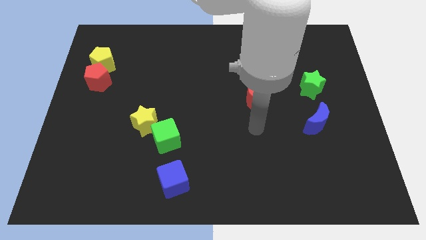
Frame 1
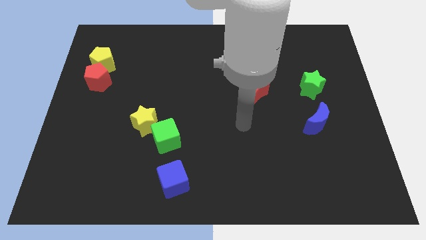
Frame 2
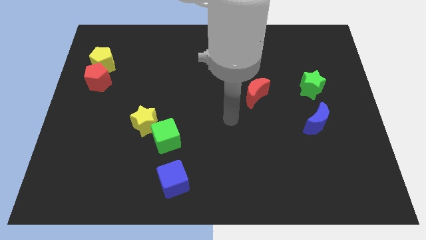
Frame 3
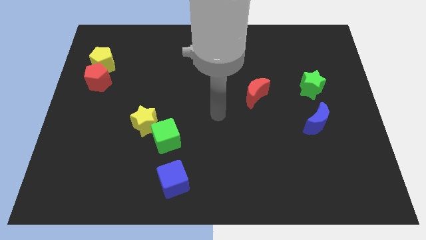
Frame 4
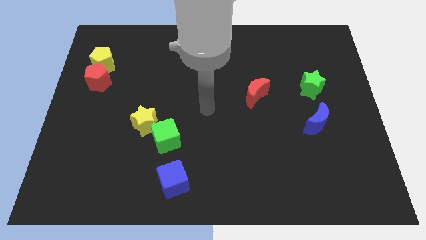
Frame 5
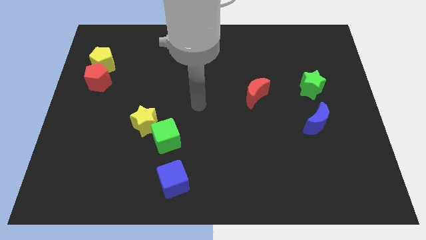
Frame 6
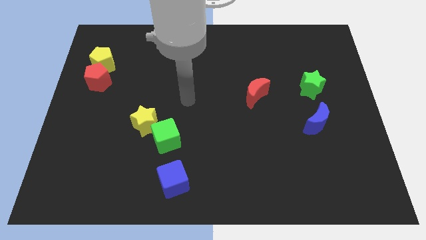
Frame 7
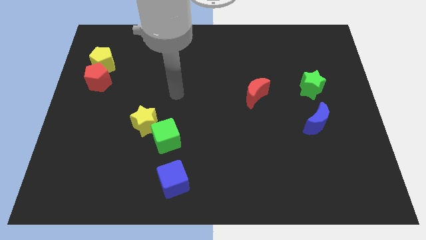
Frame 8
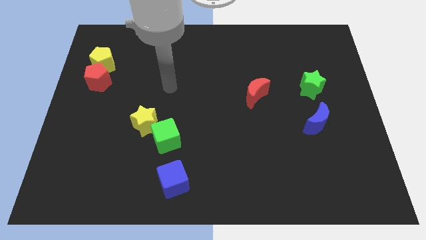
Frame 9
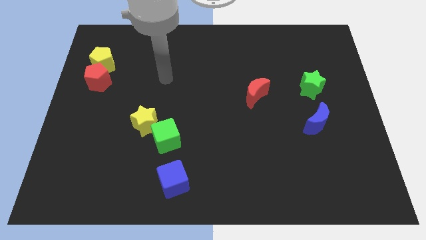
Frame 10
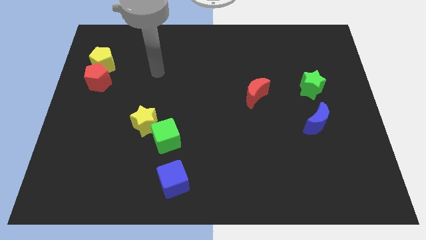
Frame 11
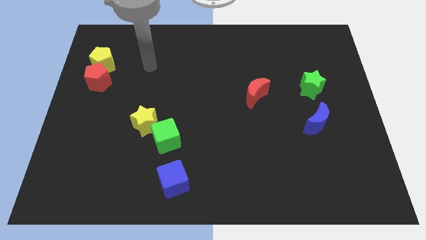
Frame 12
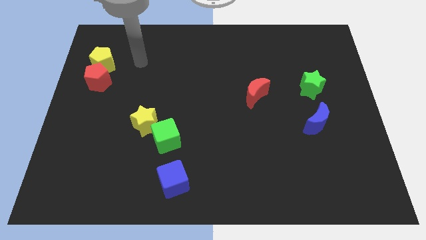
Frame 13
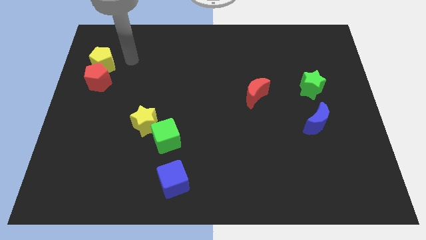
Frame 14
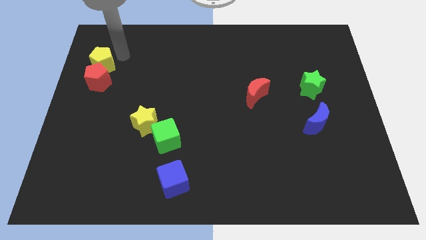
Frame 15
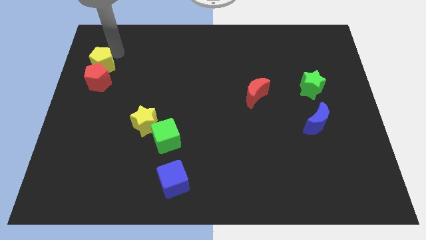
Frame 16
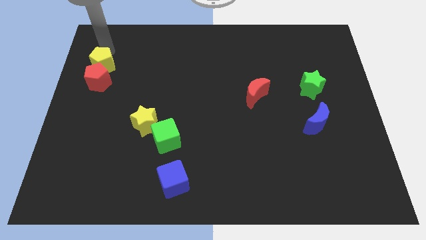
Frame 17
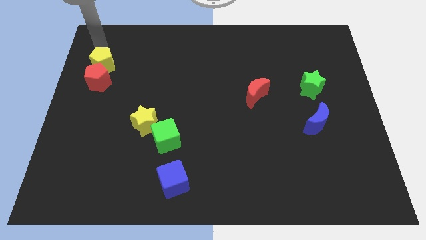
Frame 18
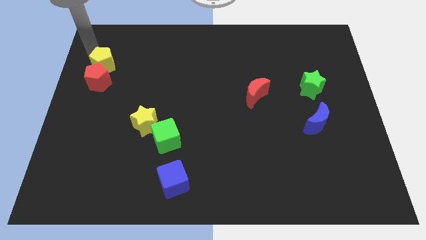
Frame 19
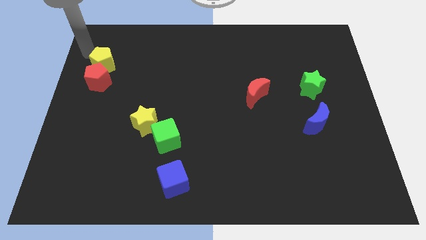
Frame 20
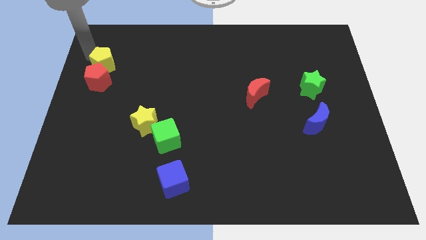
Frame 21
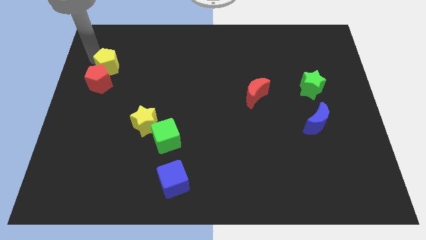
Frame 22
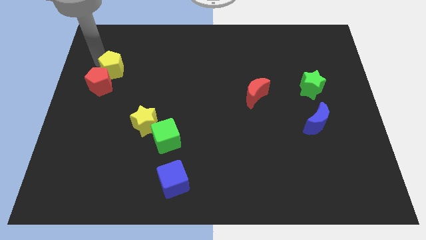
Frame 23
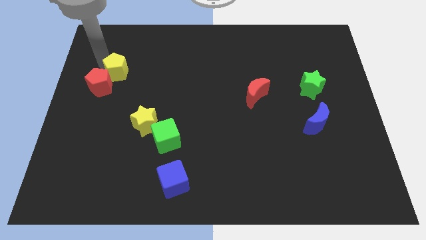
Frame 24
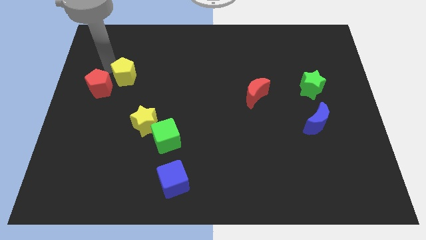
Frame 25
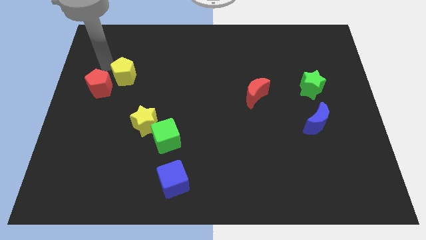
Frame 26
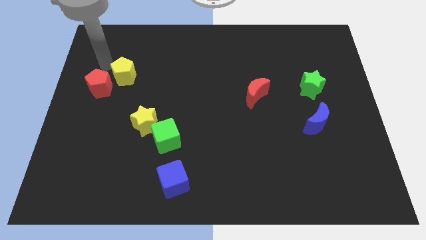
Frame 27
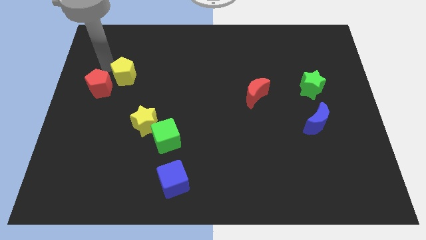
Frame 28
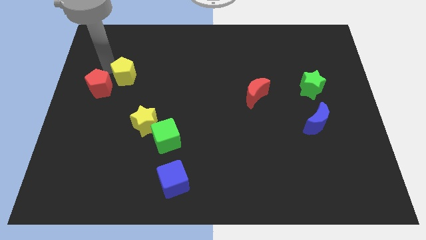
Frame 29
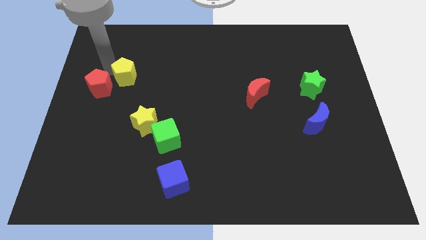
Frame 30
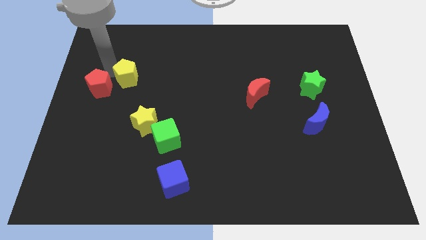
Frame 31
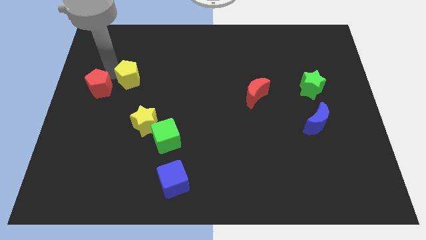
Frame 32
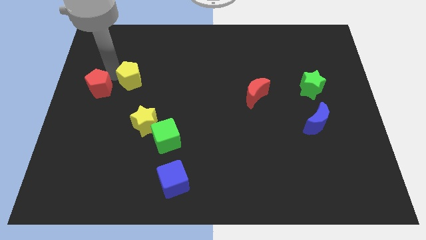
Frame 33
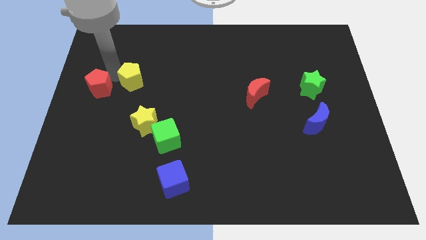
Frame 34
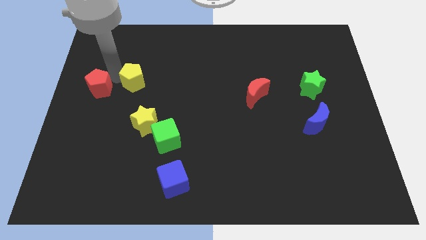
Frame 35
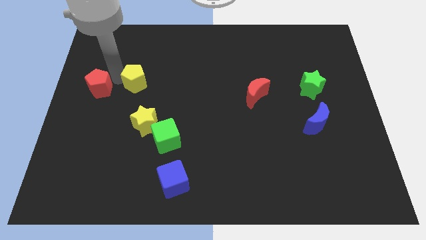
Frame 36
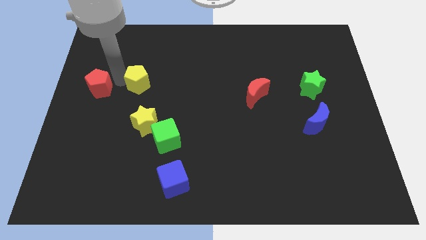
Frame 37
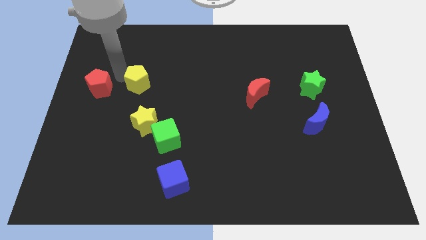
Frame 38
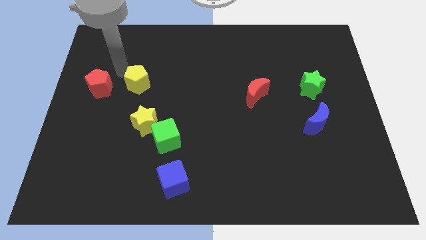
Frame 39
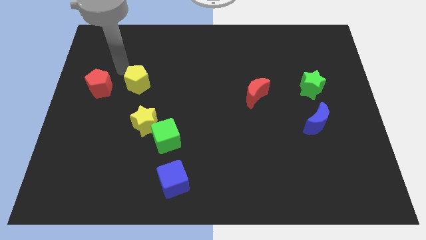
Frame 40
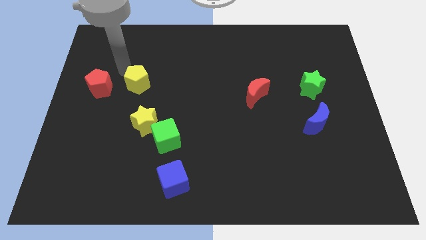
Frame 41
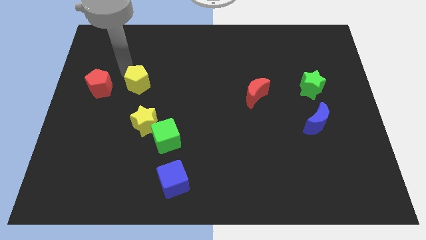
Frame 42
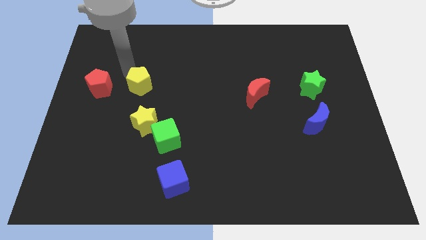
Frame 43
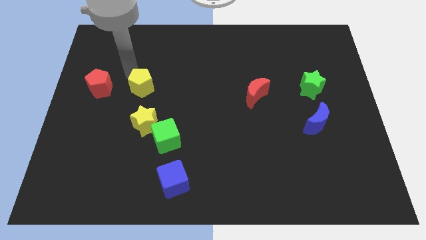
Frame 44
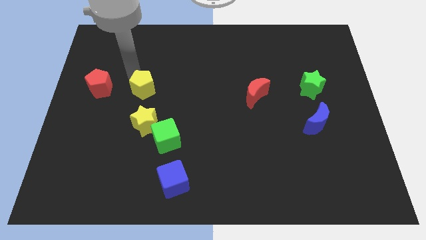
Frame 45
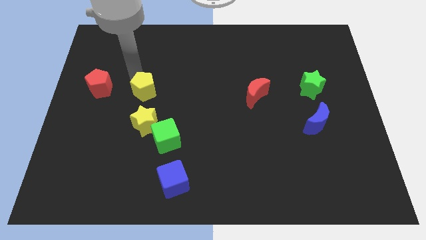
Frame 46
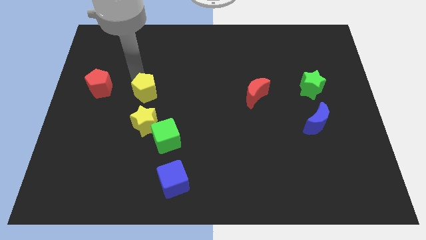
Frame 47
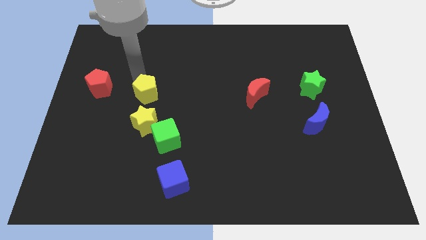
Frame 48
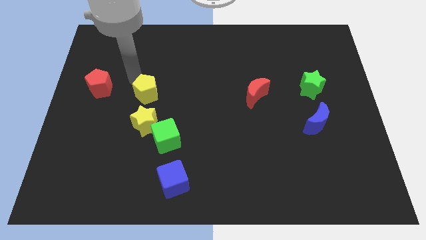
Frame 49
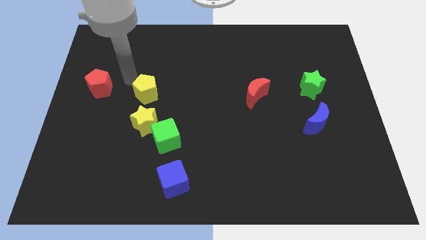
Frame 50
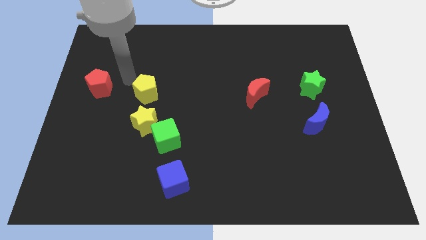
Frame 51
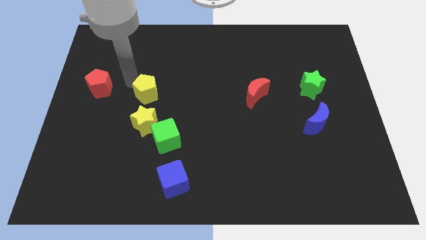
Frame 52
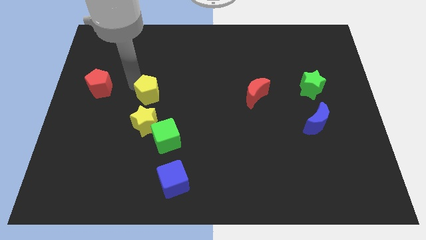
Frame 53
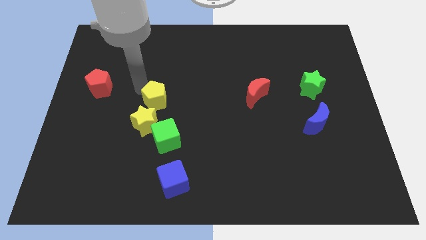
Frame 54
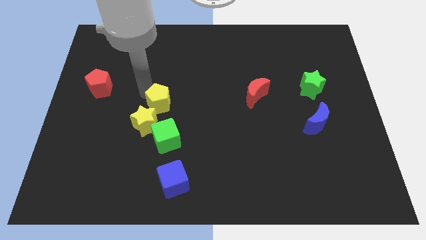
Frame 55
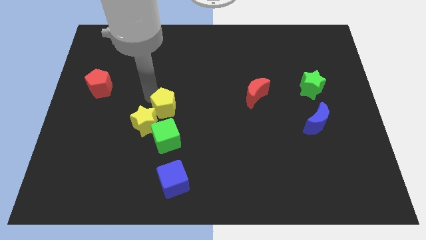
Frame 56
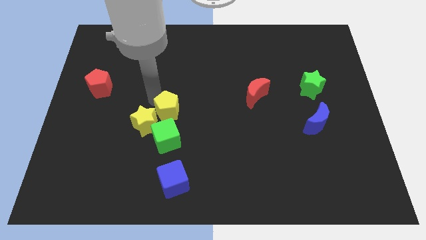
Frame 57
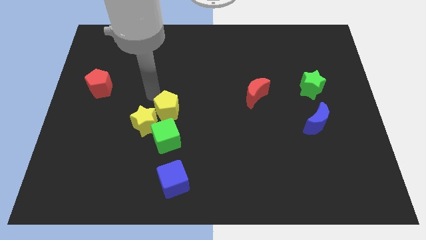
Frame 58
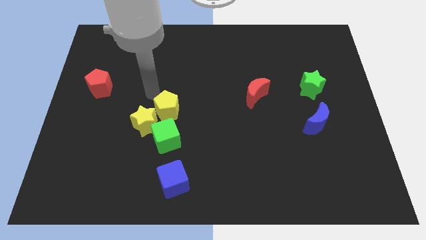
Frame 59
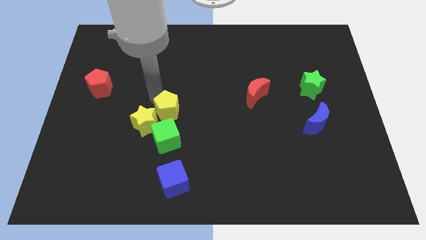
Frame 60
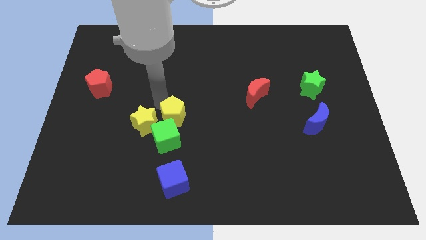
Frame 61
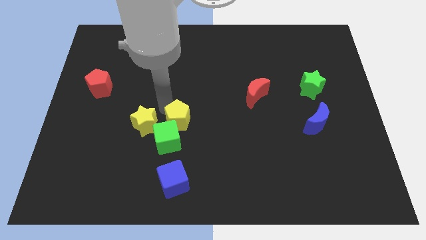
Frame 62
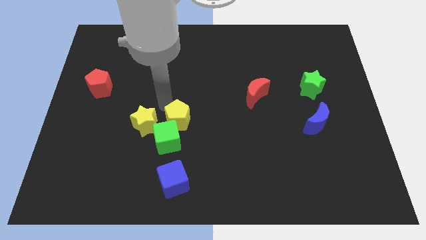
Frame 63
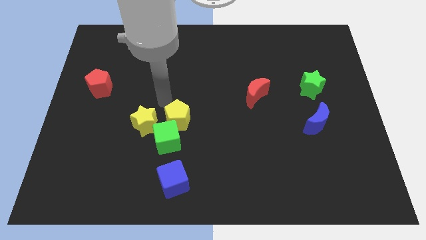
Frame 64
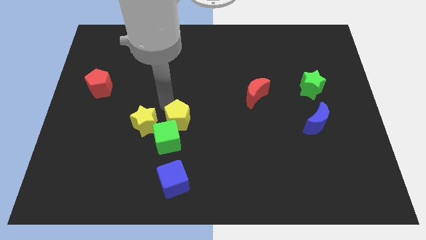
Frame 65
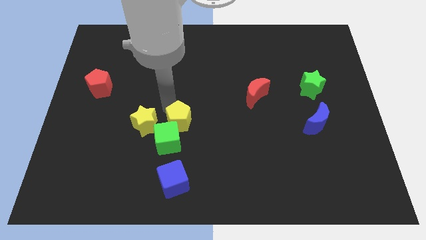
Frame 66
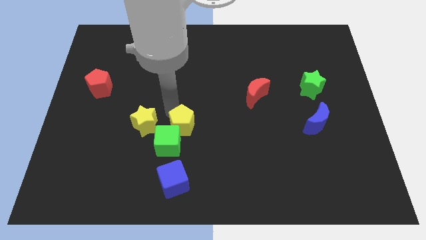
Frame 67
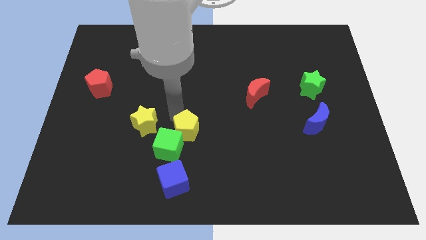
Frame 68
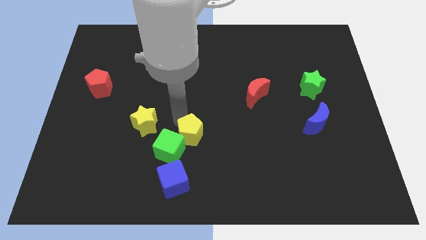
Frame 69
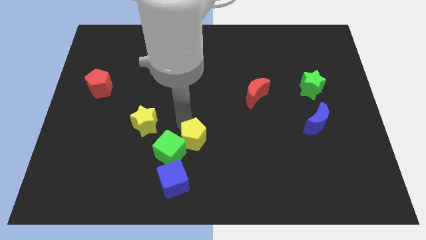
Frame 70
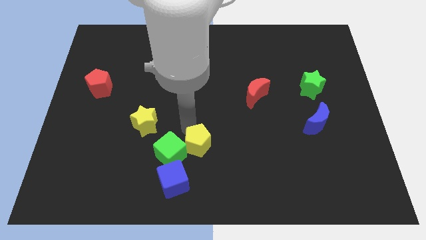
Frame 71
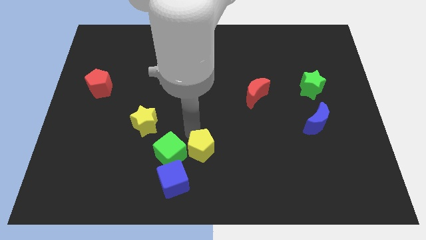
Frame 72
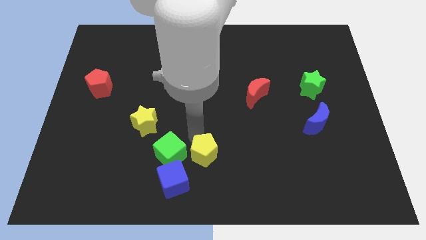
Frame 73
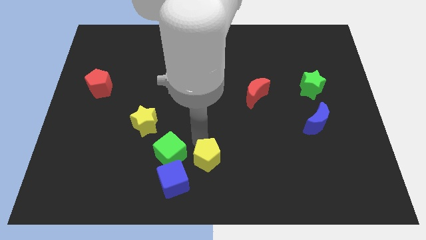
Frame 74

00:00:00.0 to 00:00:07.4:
slide the yellow pentagon to the bottom
